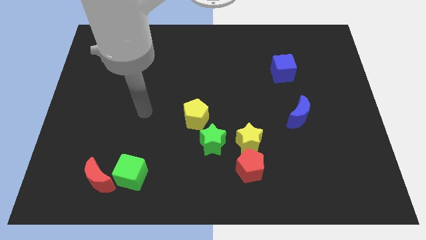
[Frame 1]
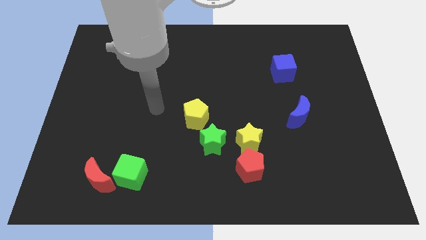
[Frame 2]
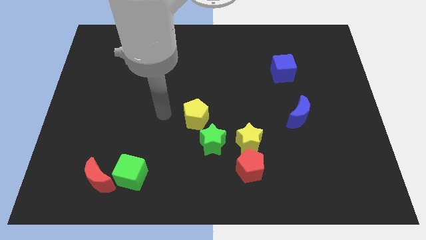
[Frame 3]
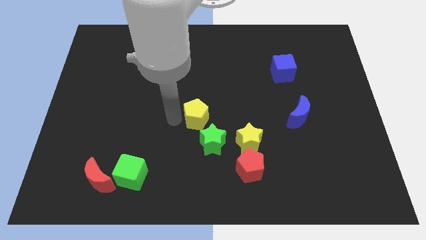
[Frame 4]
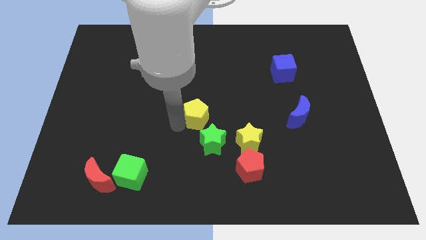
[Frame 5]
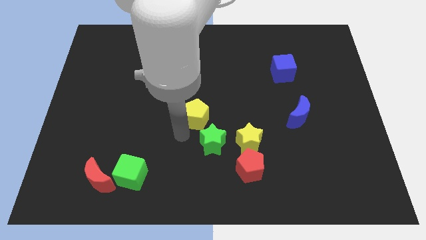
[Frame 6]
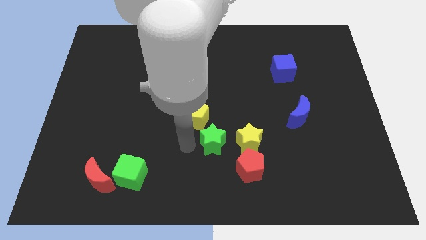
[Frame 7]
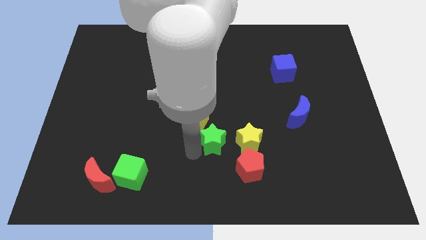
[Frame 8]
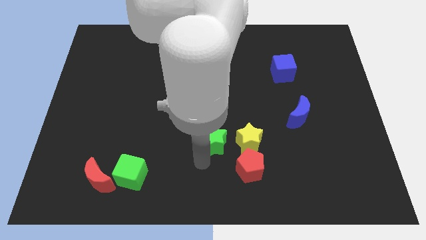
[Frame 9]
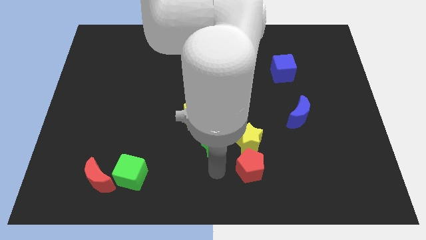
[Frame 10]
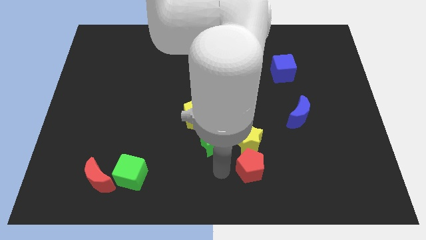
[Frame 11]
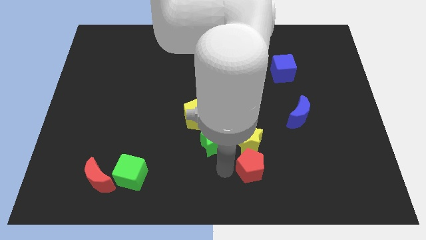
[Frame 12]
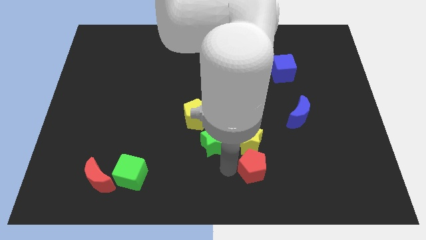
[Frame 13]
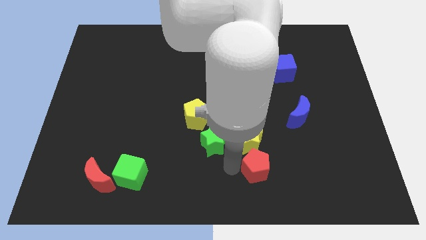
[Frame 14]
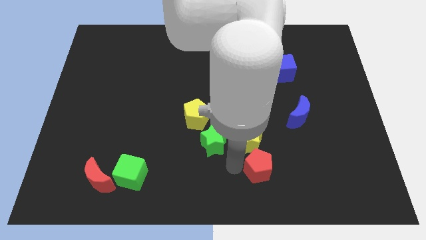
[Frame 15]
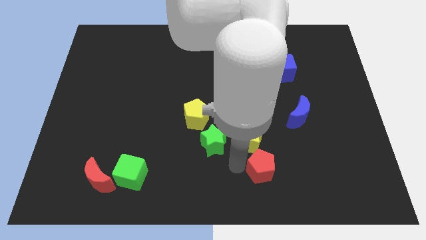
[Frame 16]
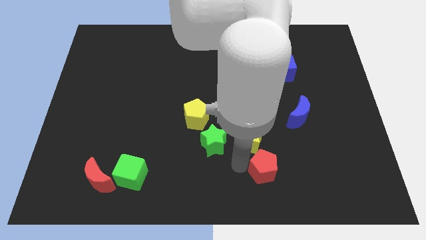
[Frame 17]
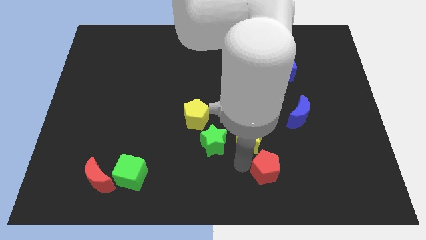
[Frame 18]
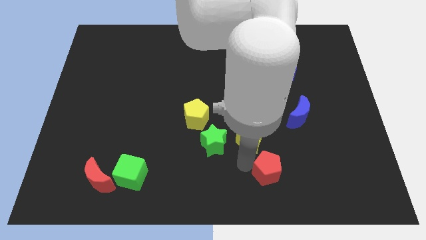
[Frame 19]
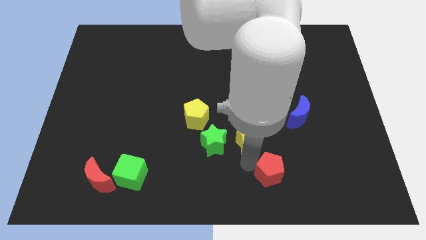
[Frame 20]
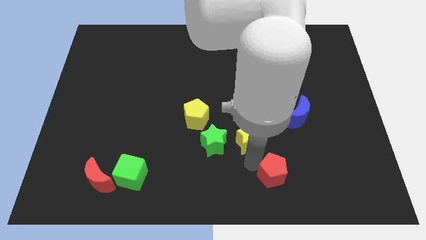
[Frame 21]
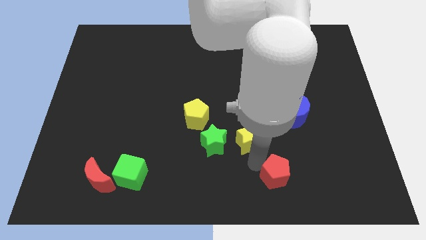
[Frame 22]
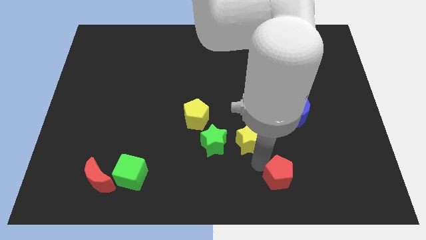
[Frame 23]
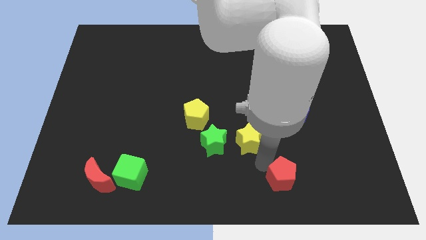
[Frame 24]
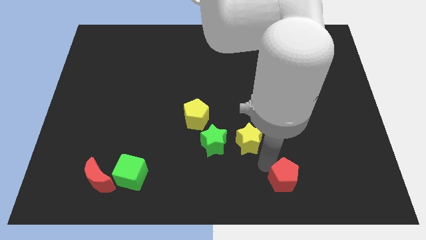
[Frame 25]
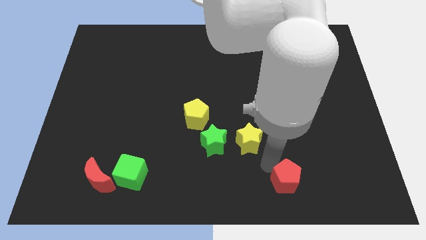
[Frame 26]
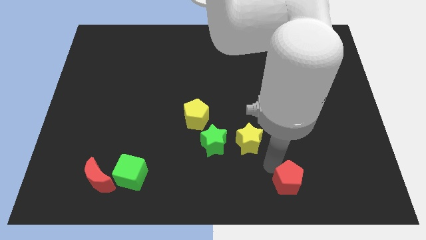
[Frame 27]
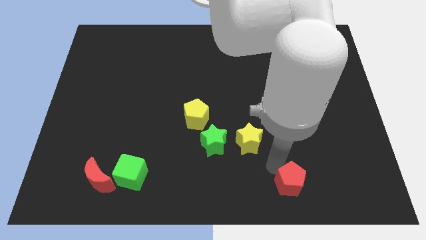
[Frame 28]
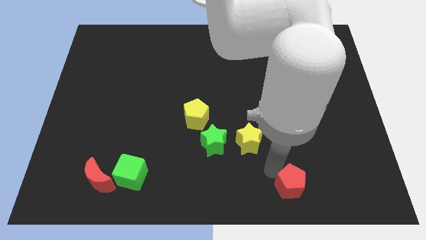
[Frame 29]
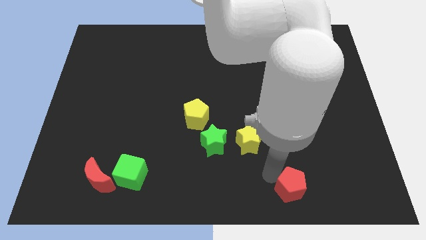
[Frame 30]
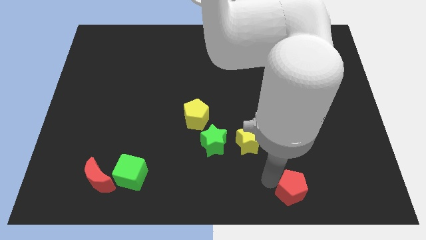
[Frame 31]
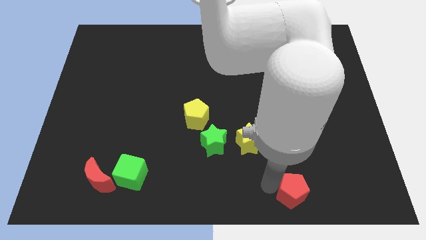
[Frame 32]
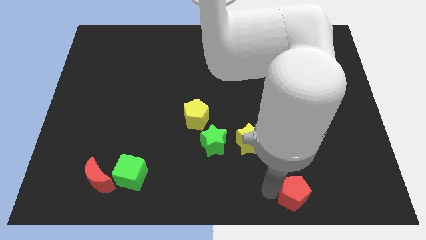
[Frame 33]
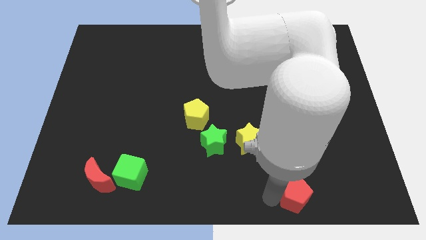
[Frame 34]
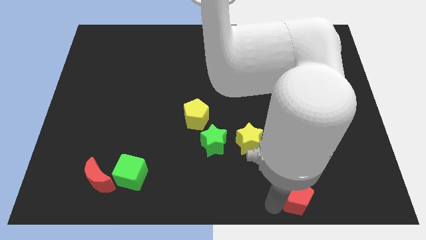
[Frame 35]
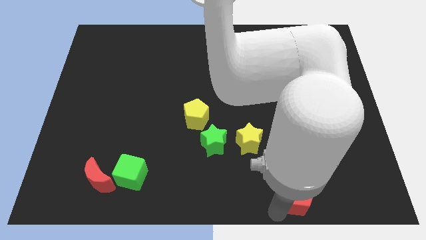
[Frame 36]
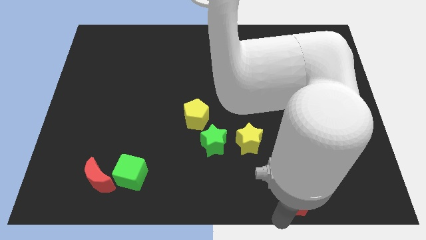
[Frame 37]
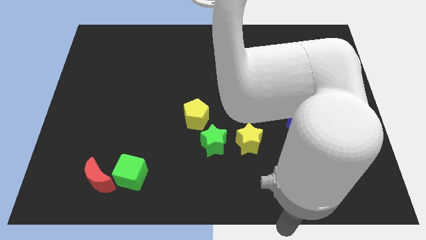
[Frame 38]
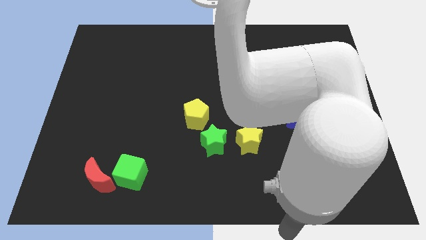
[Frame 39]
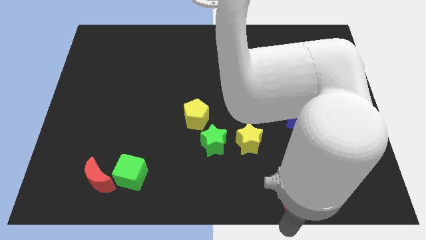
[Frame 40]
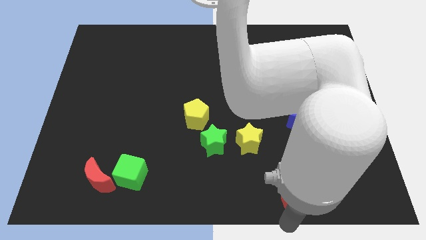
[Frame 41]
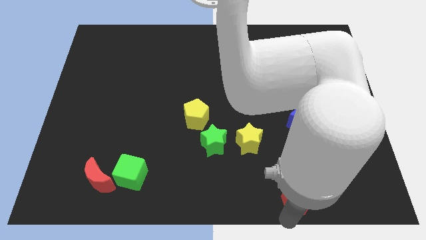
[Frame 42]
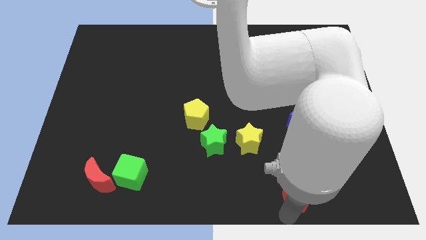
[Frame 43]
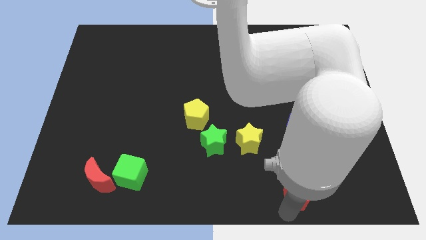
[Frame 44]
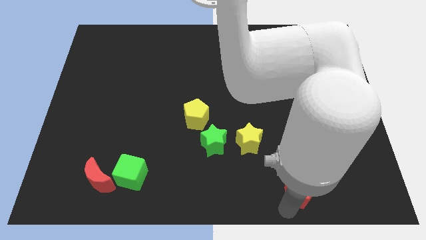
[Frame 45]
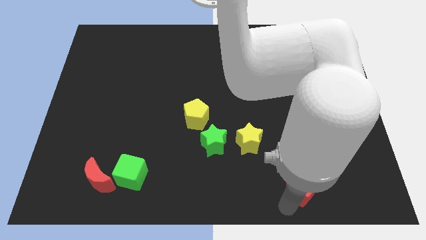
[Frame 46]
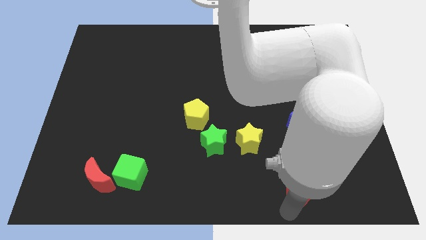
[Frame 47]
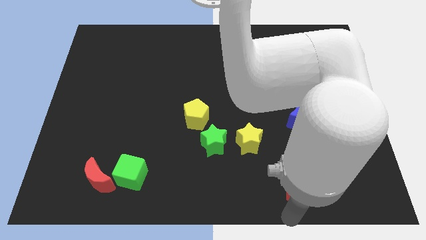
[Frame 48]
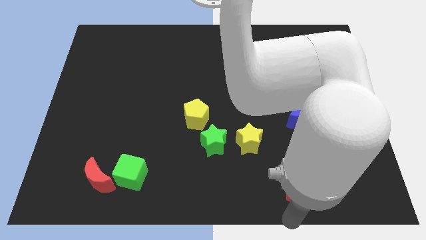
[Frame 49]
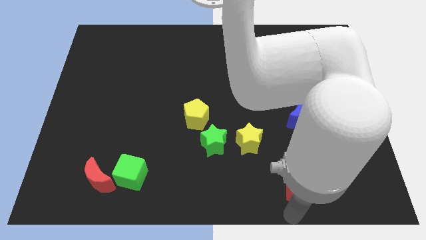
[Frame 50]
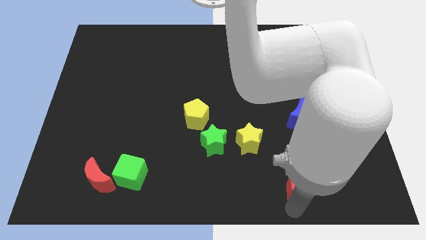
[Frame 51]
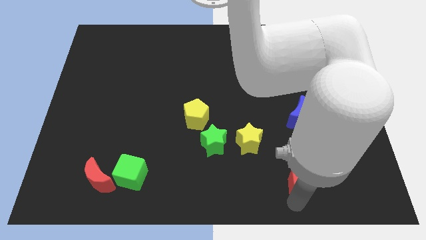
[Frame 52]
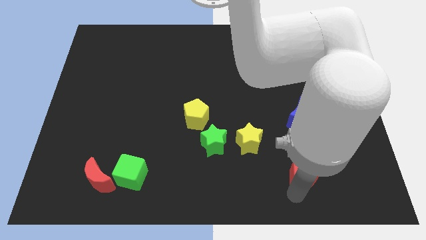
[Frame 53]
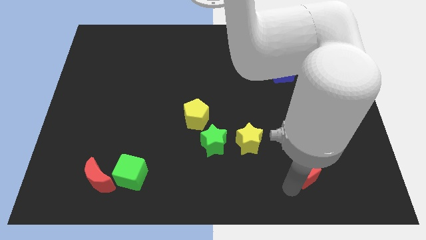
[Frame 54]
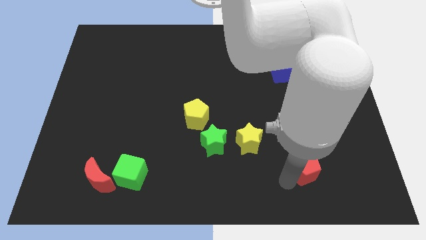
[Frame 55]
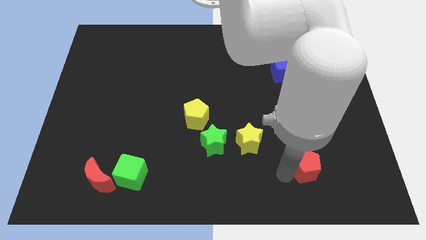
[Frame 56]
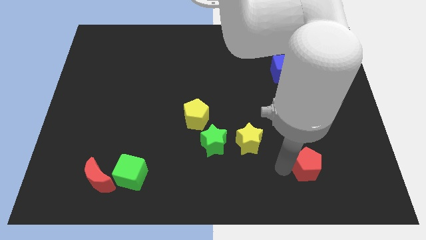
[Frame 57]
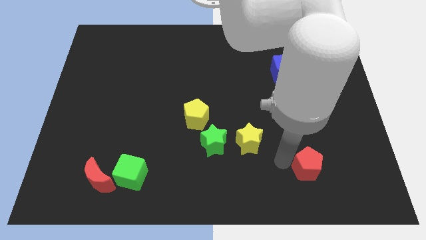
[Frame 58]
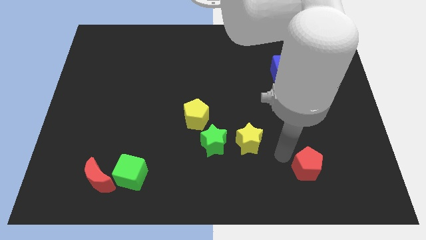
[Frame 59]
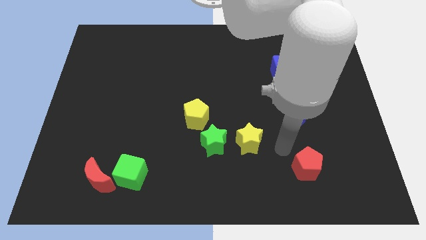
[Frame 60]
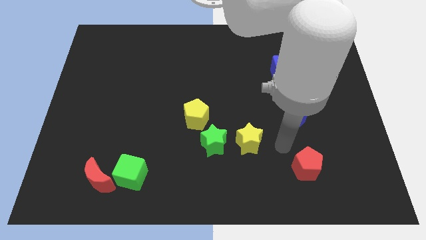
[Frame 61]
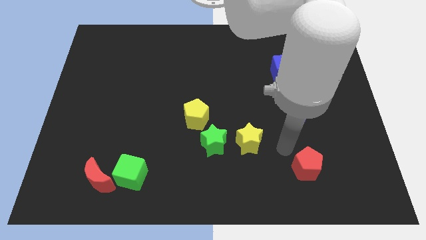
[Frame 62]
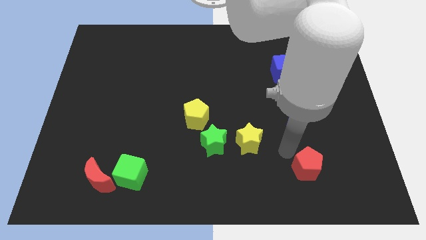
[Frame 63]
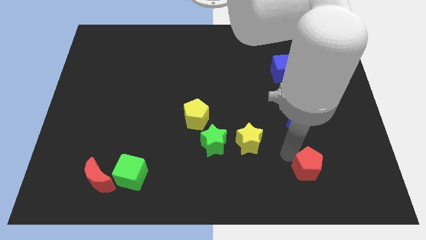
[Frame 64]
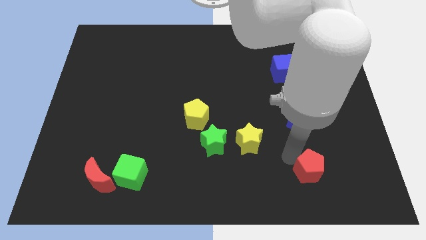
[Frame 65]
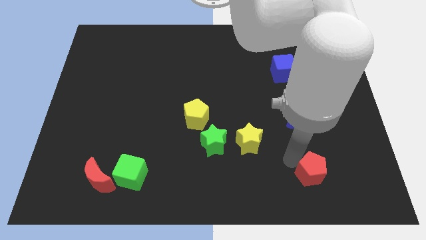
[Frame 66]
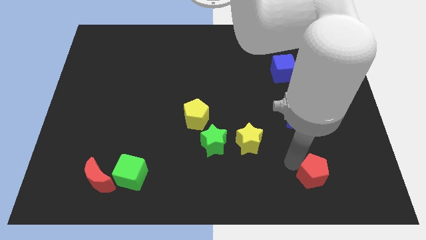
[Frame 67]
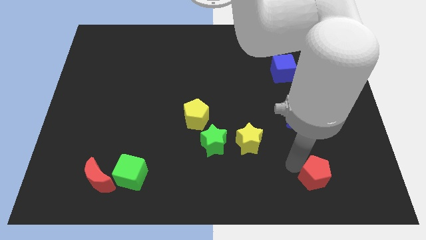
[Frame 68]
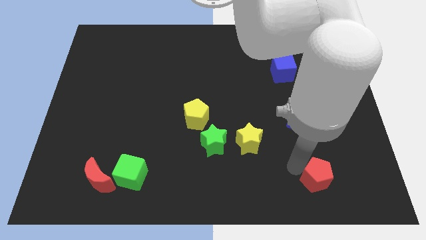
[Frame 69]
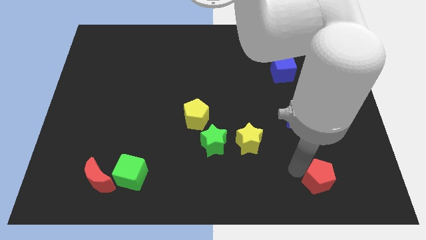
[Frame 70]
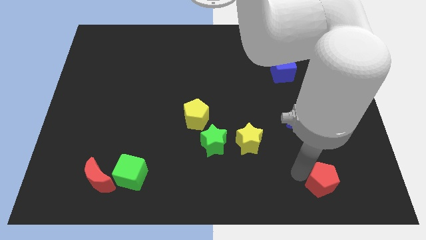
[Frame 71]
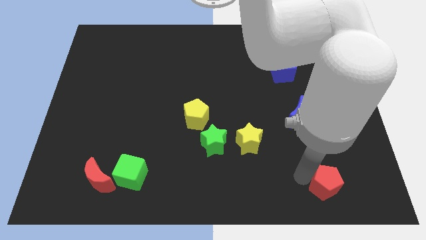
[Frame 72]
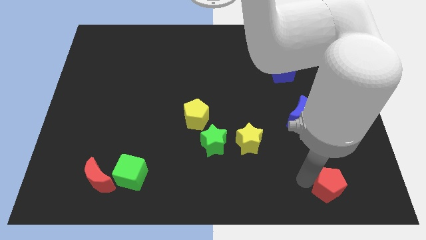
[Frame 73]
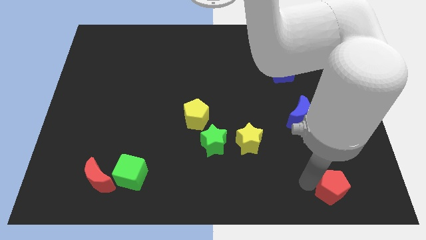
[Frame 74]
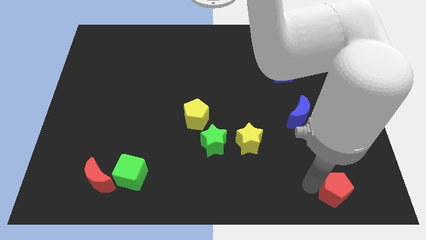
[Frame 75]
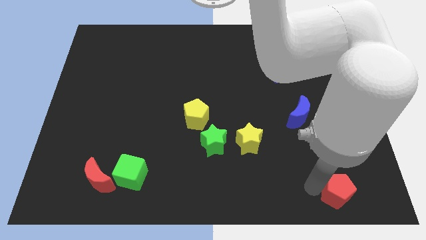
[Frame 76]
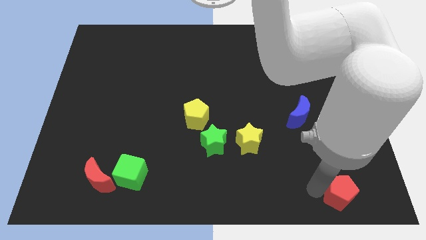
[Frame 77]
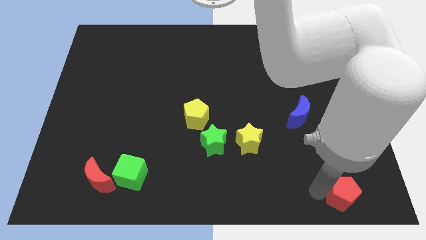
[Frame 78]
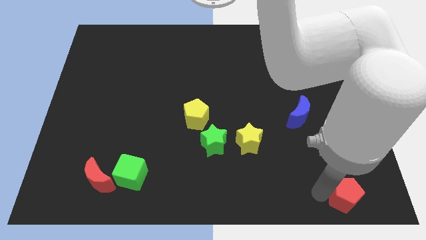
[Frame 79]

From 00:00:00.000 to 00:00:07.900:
put the red pentagon to the bottom right
